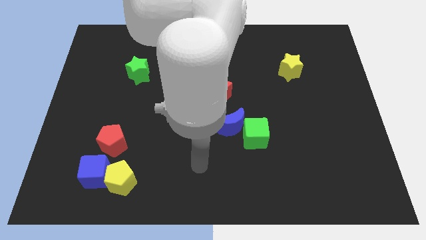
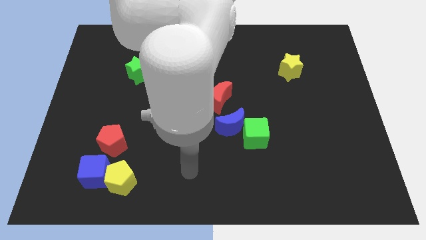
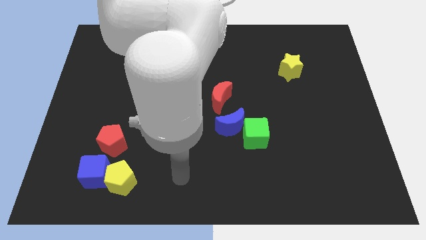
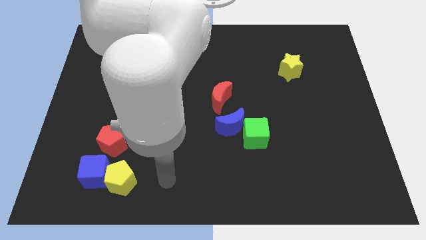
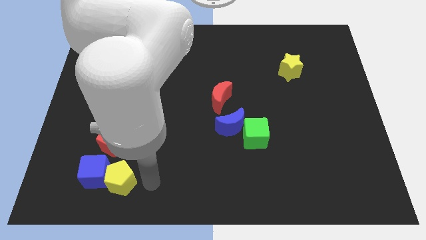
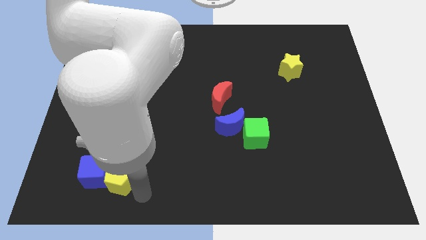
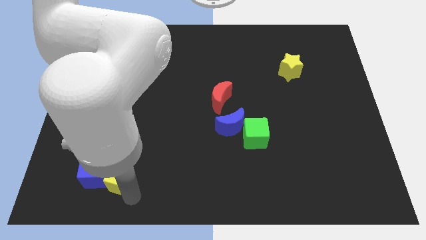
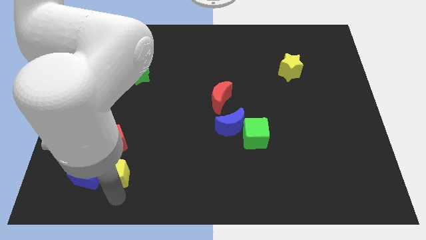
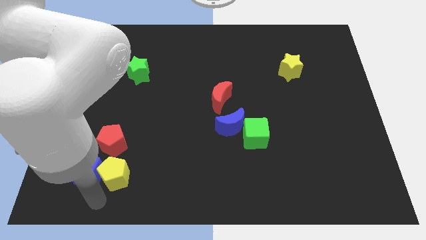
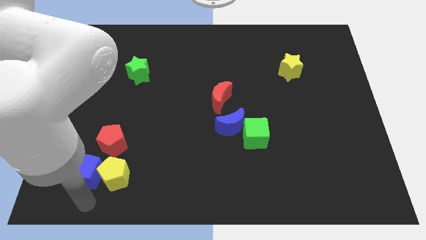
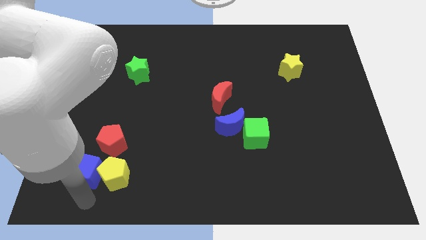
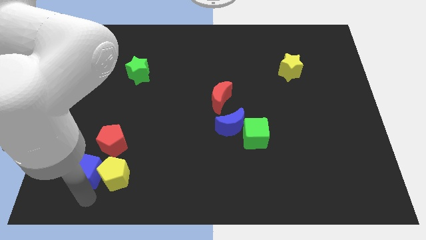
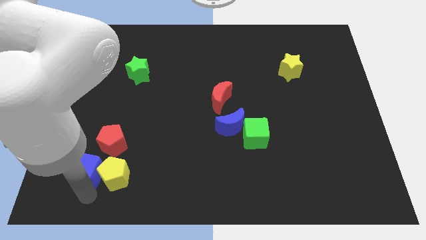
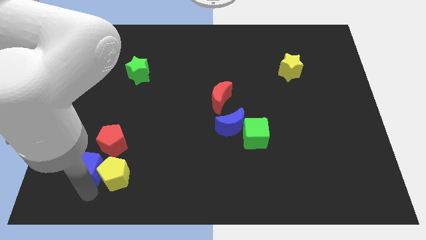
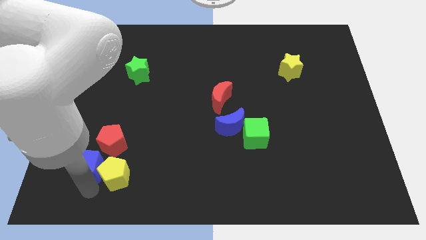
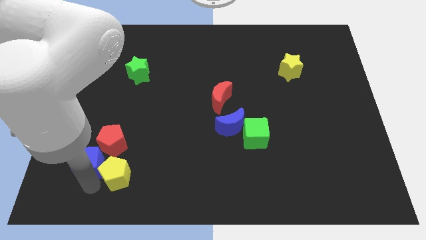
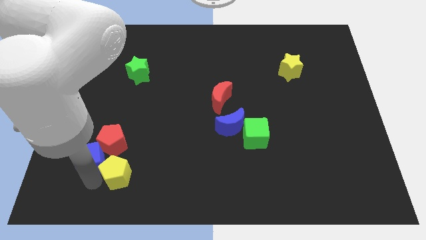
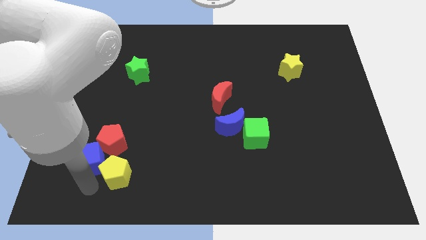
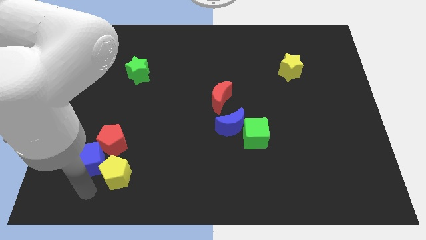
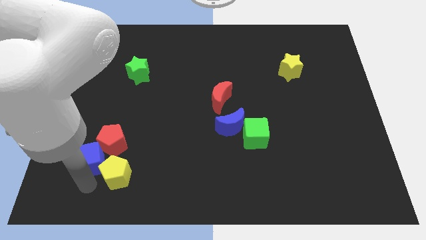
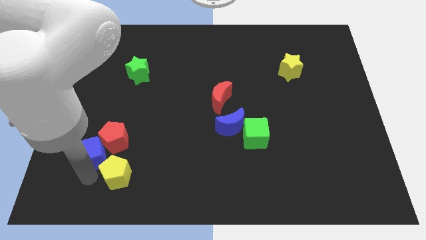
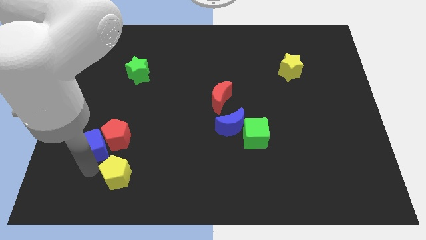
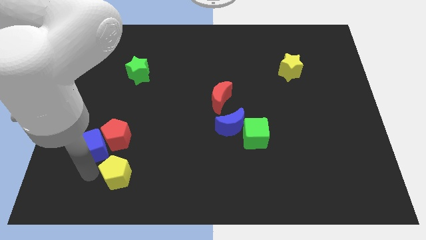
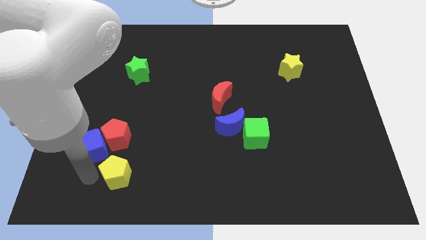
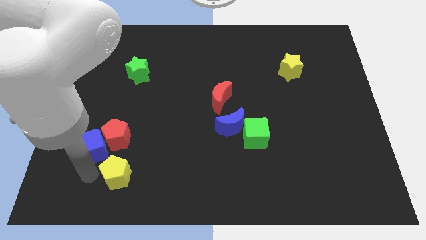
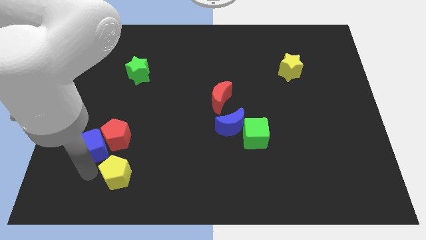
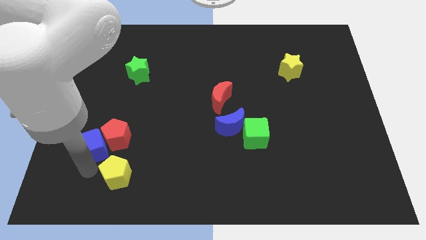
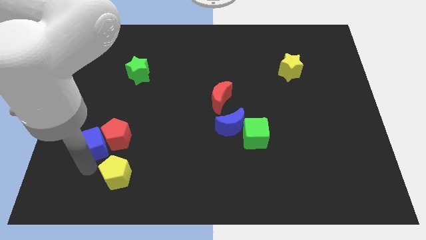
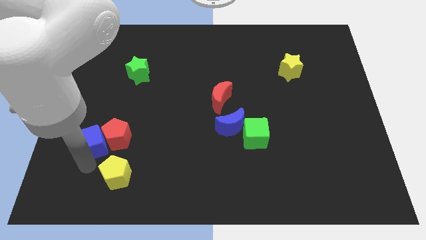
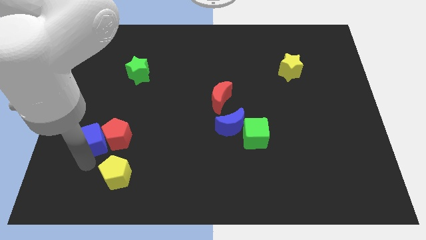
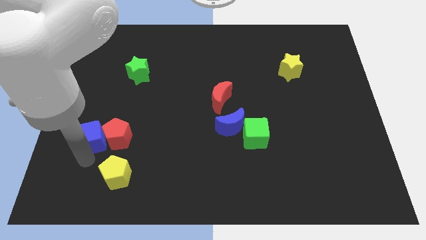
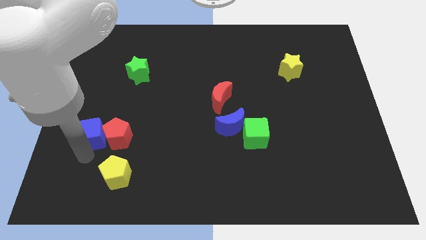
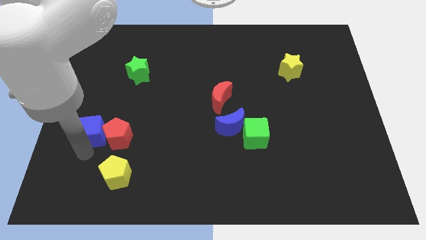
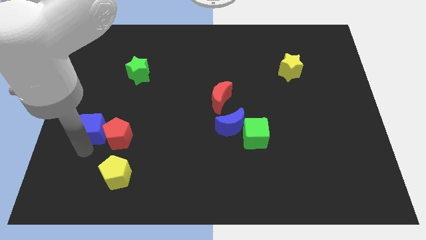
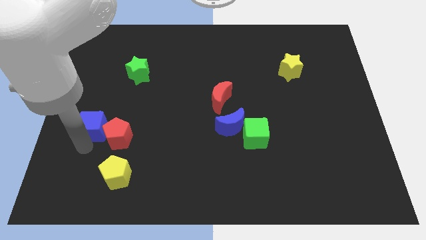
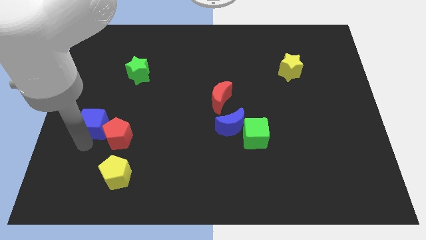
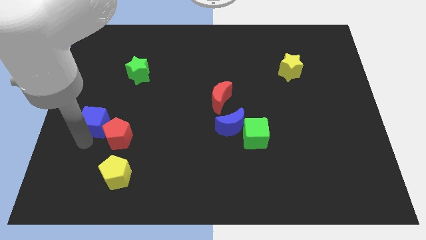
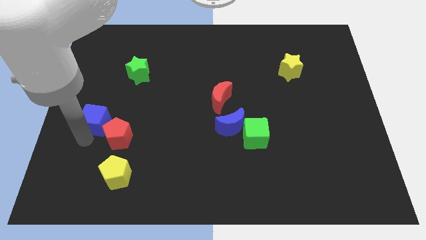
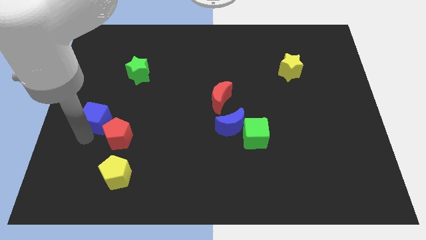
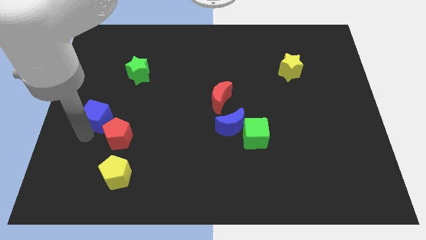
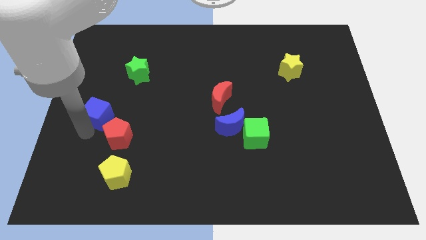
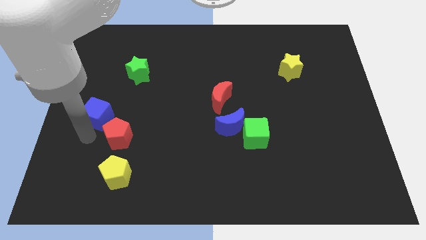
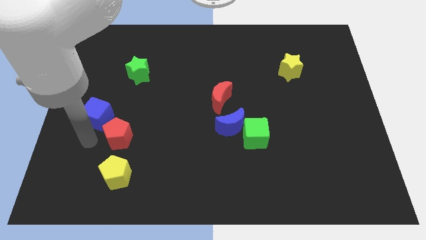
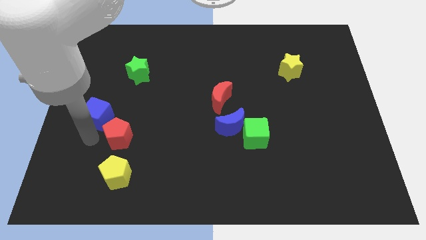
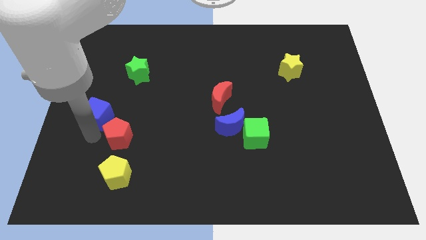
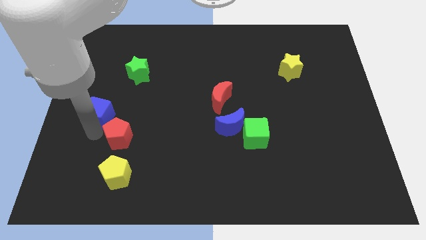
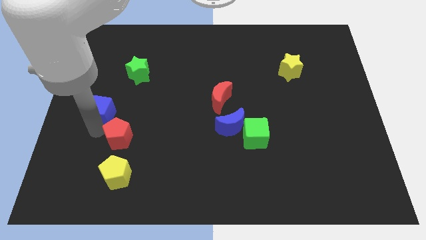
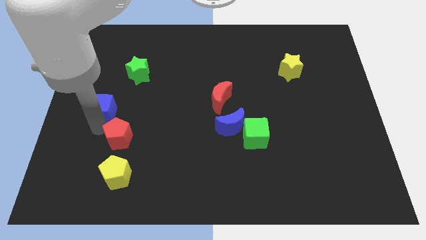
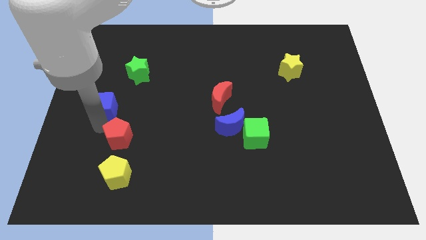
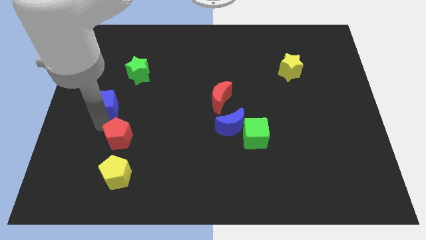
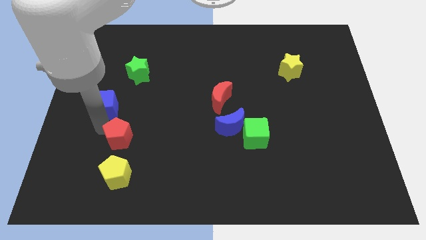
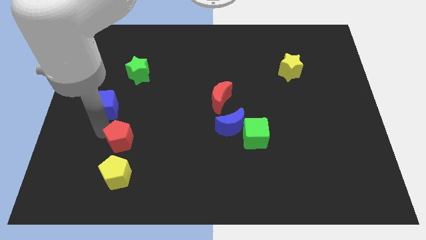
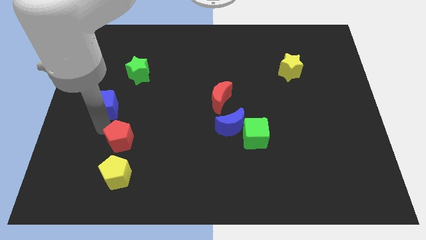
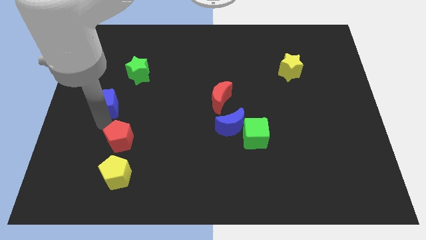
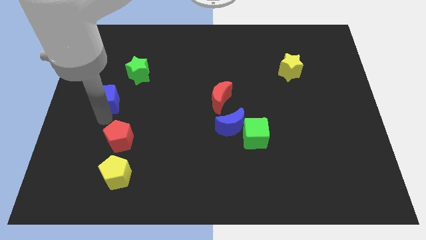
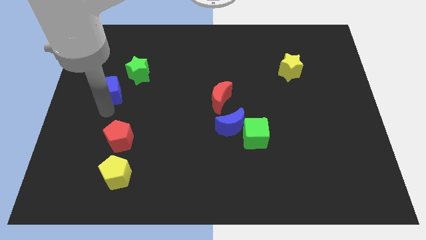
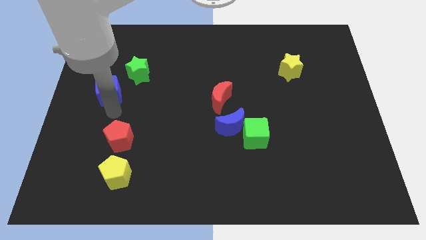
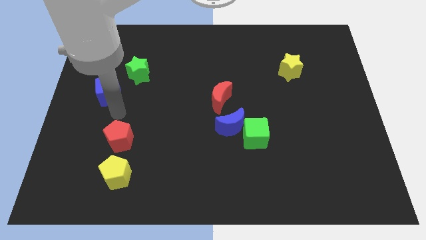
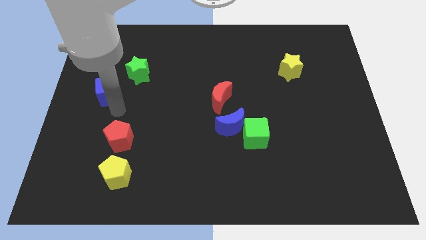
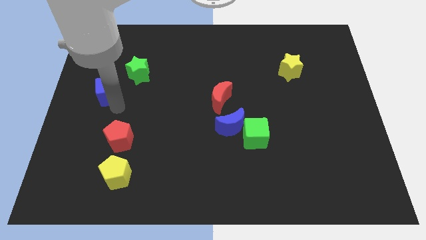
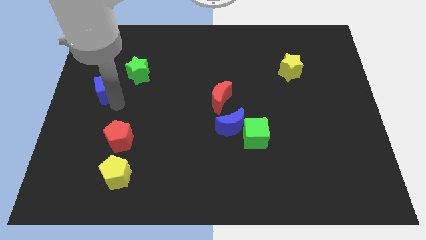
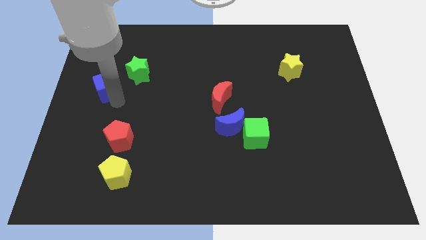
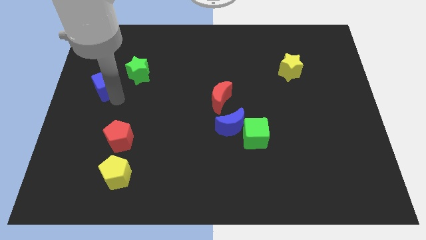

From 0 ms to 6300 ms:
push the blue cube to the left of the green star

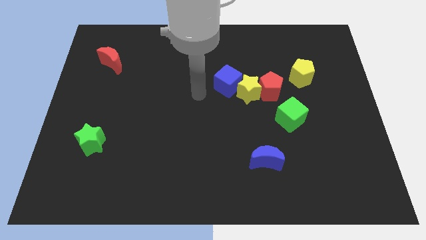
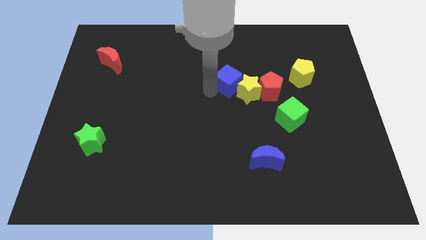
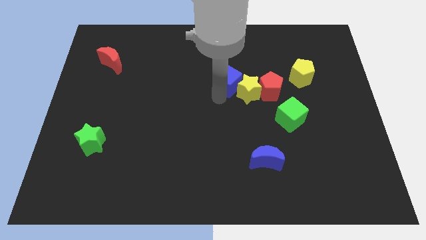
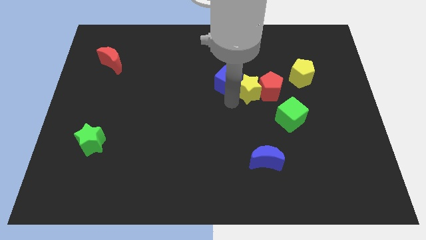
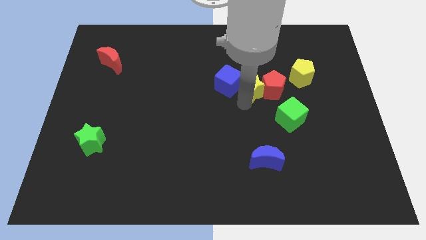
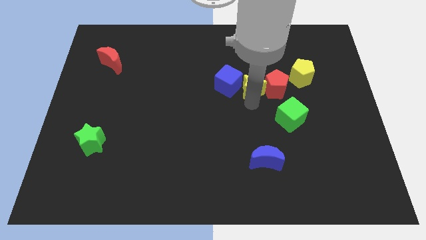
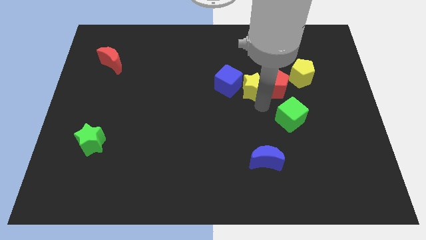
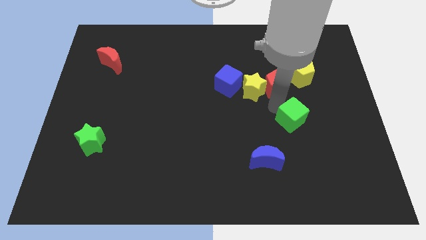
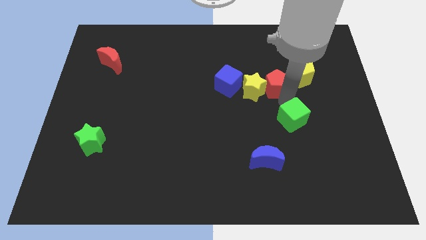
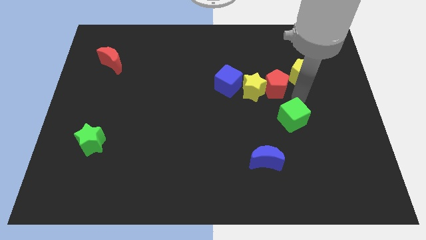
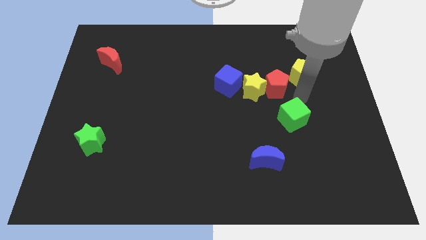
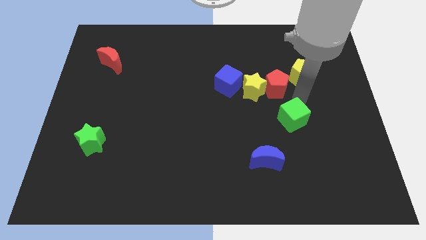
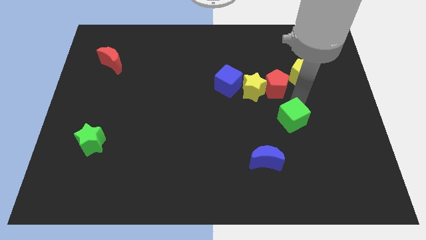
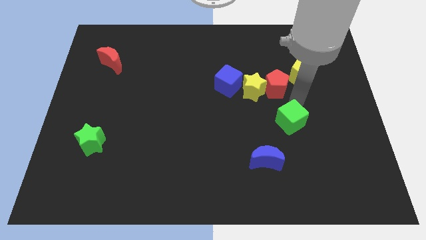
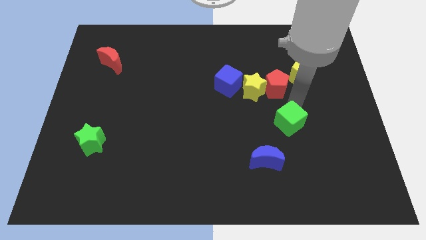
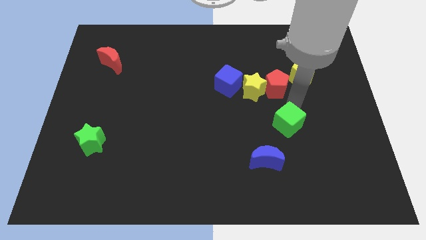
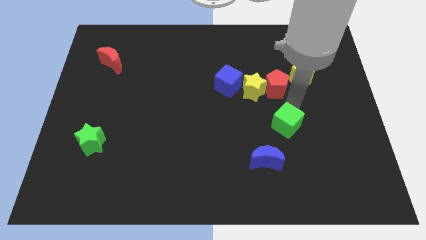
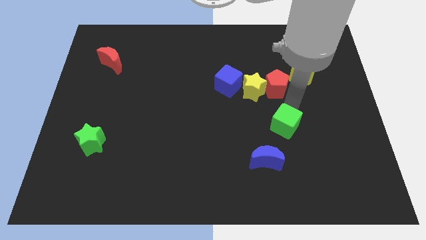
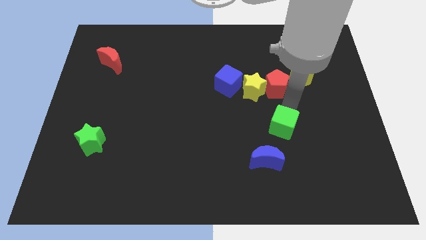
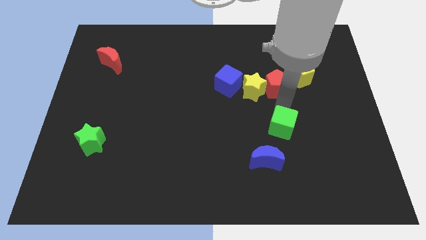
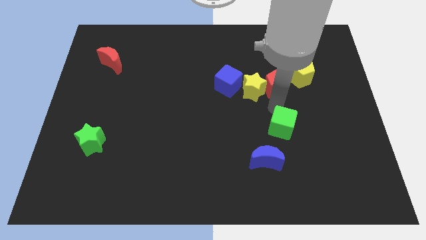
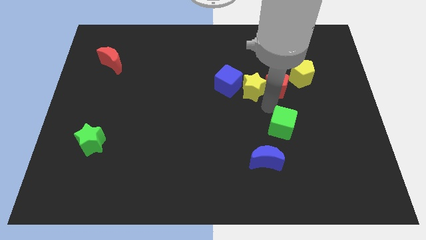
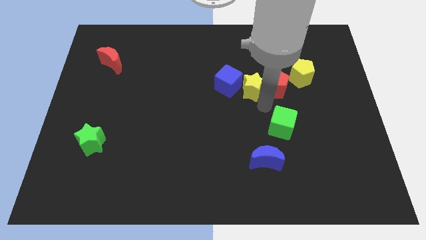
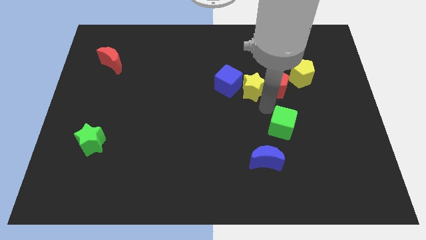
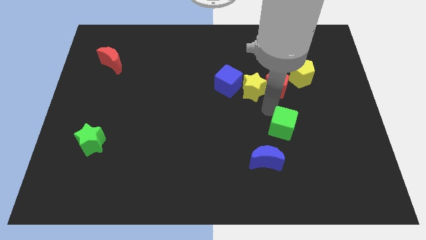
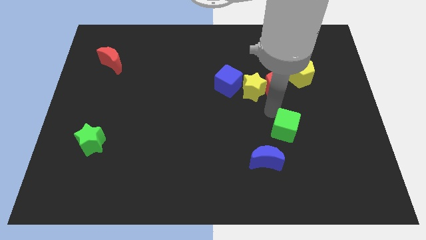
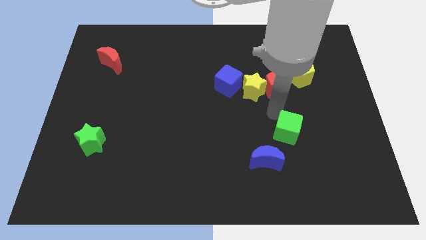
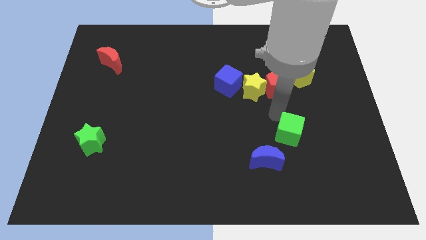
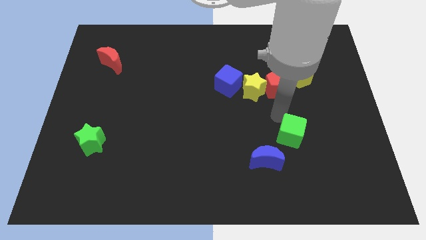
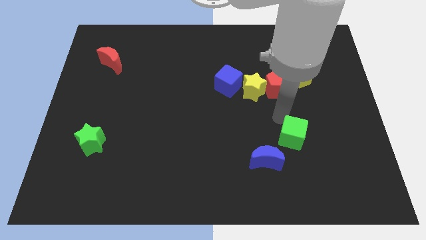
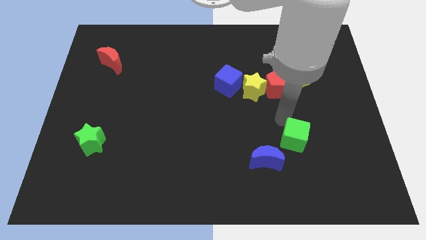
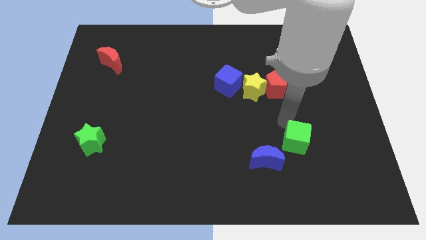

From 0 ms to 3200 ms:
move the green cube to the right of the blue moon
